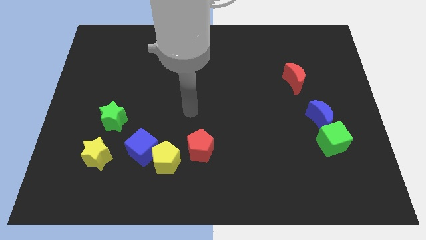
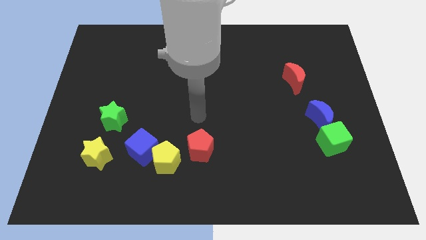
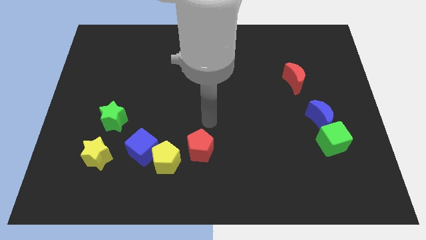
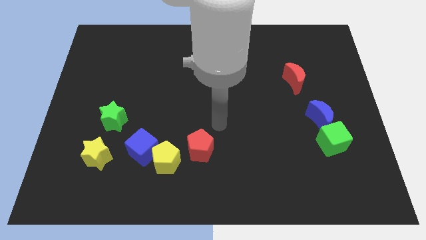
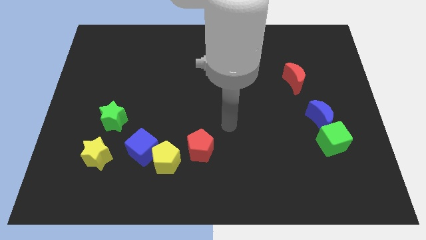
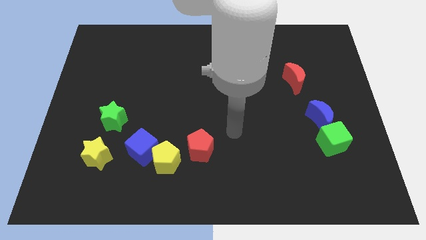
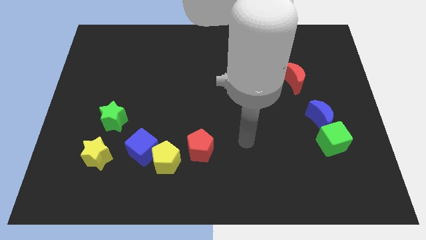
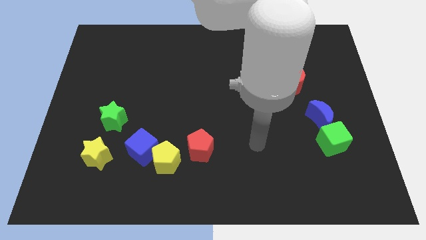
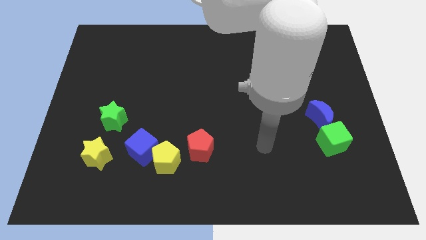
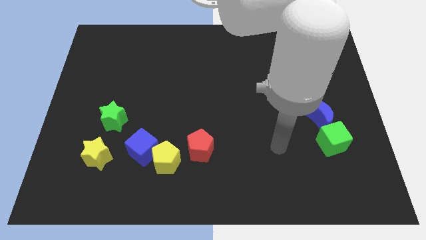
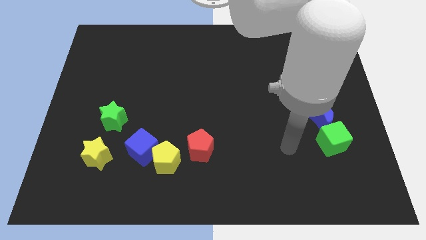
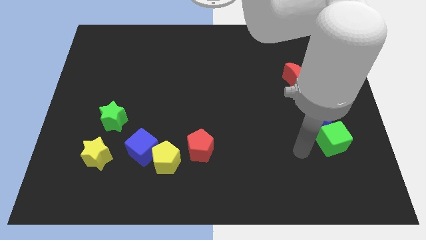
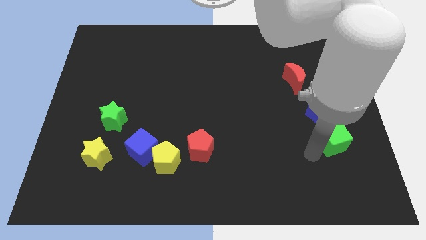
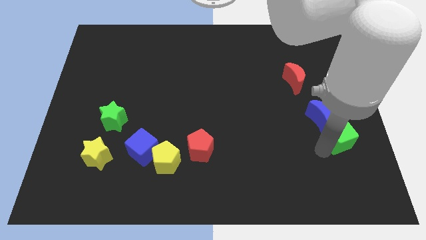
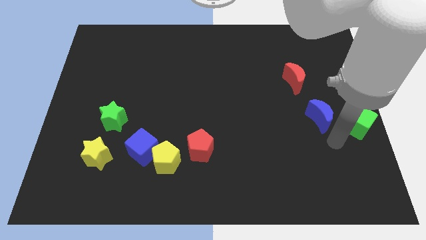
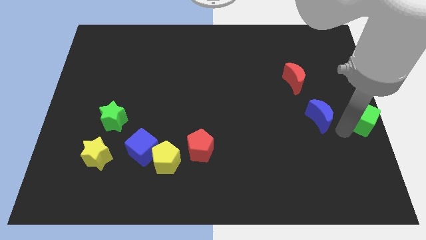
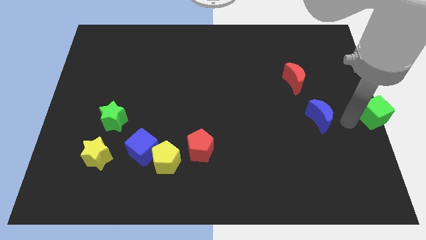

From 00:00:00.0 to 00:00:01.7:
pull the blue moon apart from the green cube

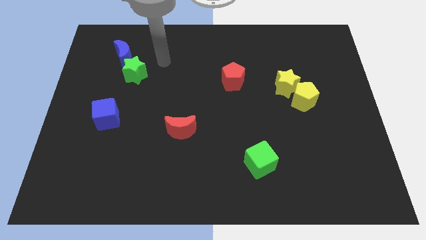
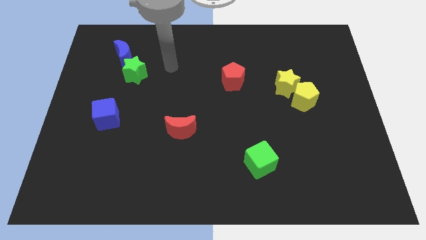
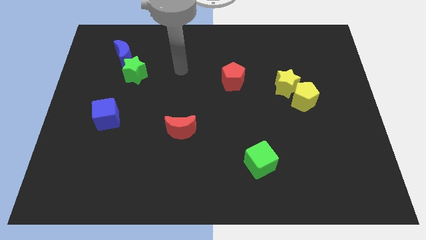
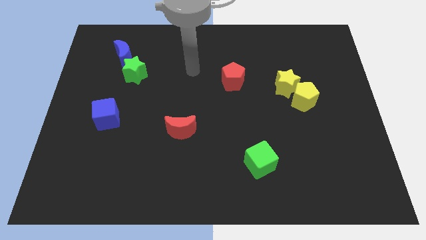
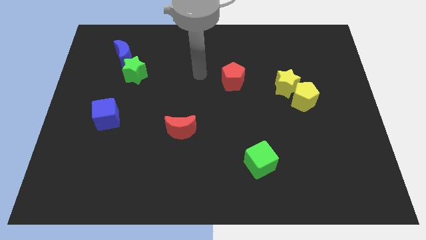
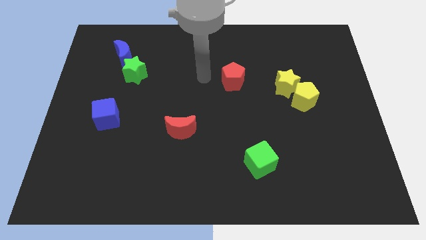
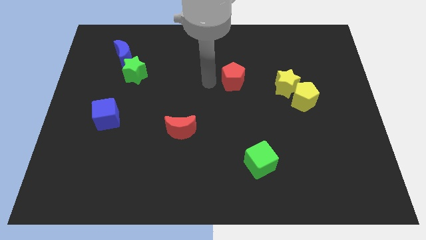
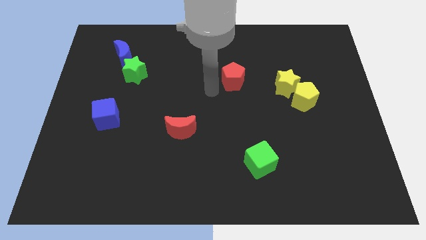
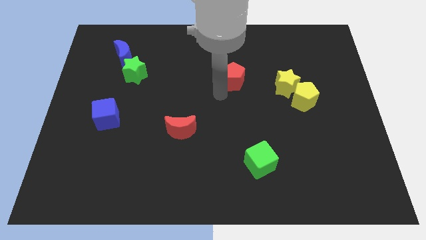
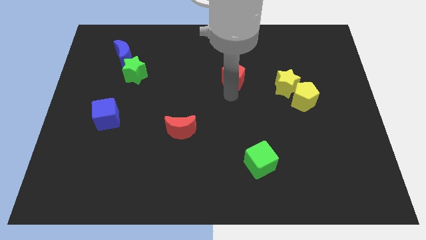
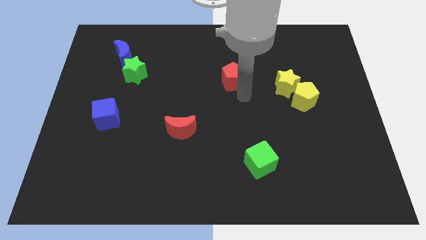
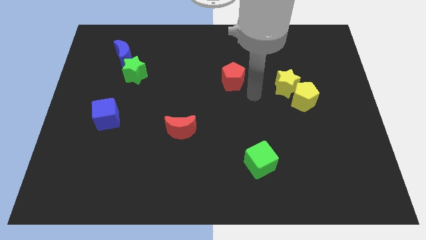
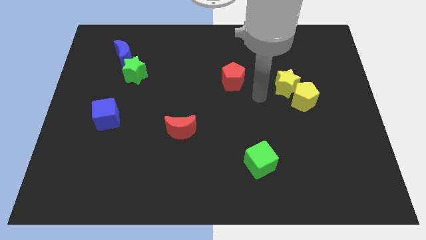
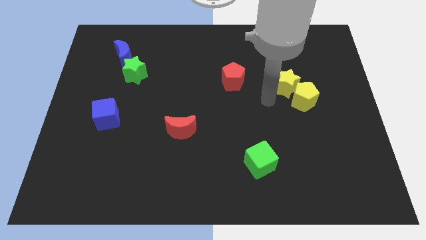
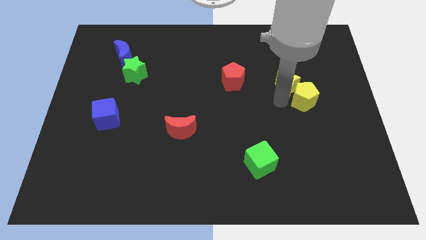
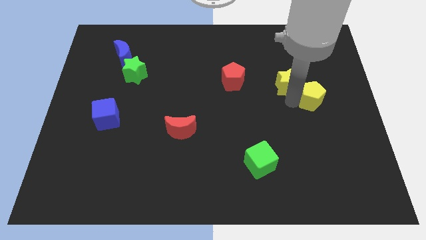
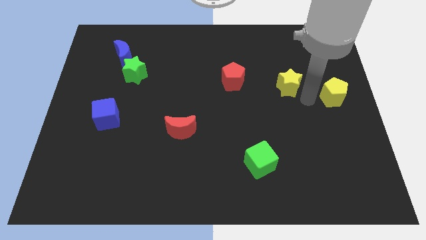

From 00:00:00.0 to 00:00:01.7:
move the yellow star away from the yellow pentagon

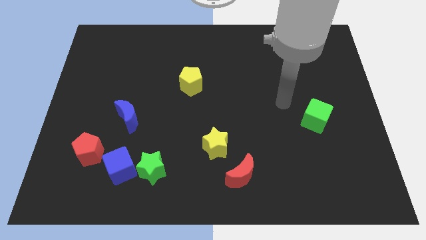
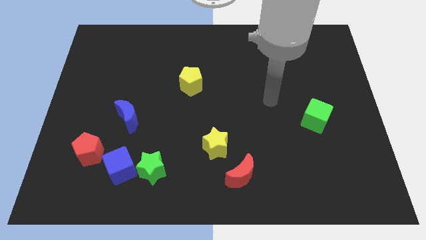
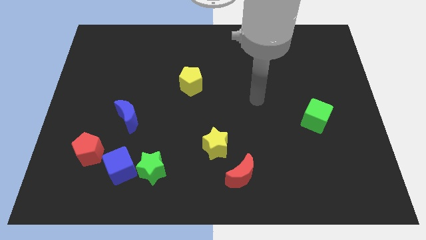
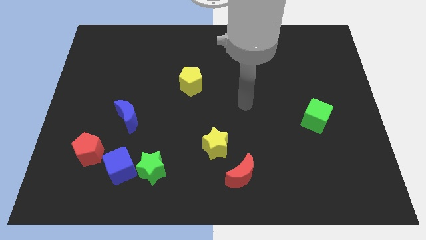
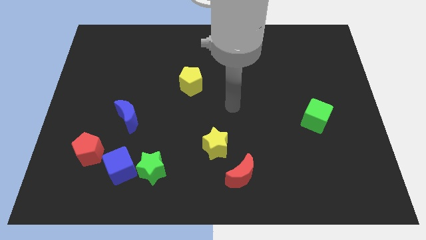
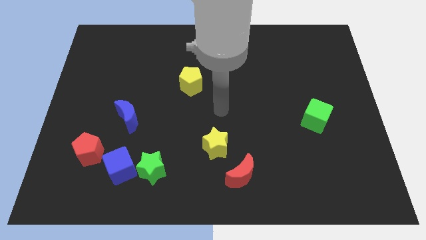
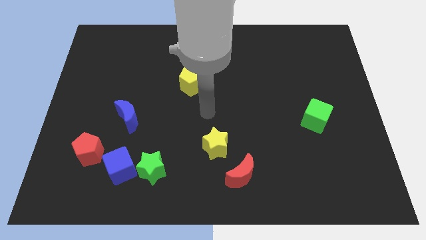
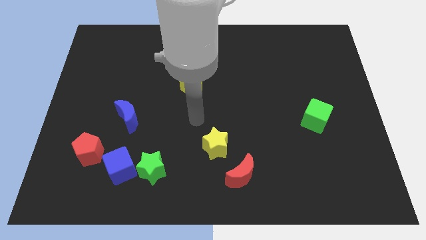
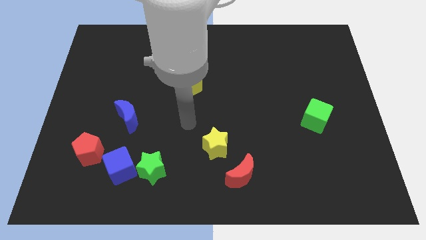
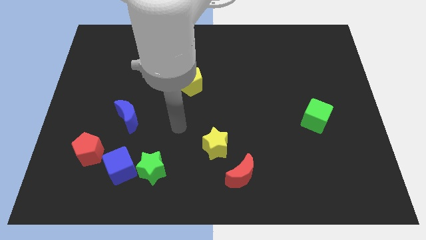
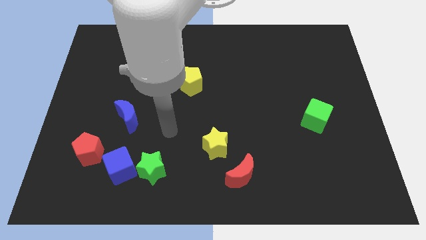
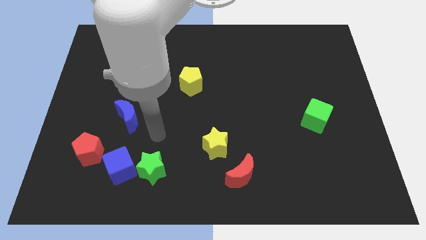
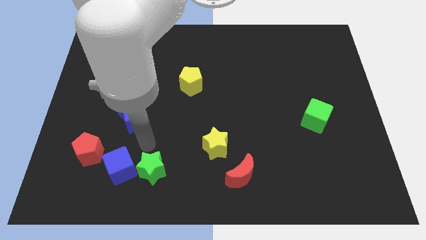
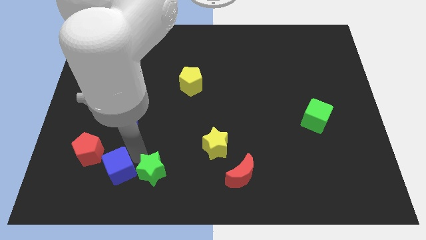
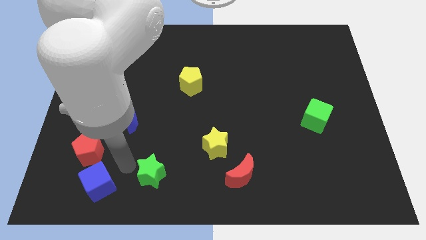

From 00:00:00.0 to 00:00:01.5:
separate the green star from the blue cube

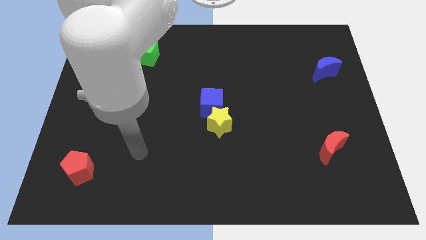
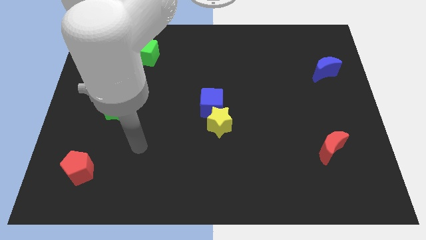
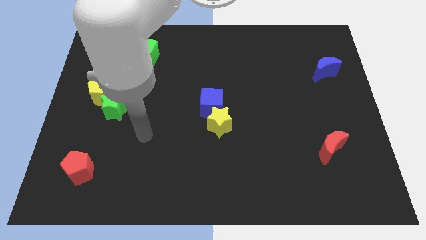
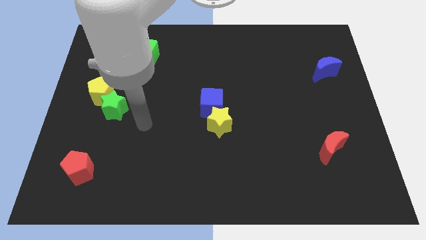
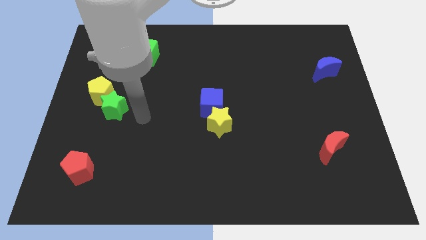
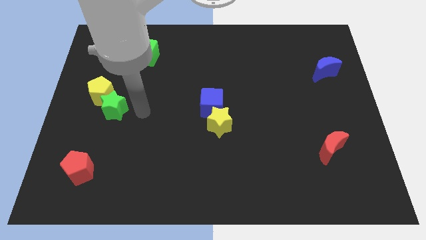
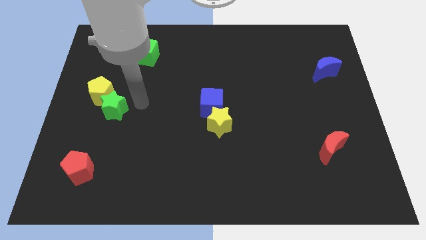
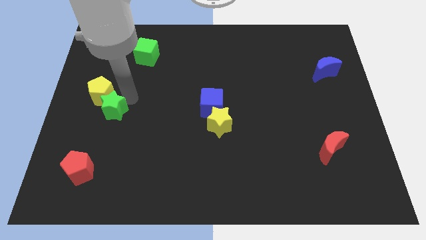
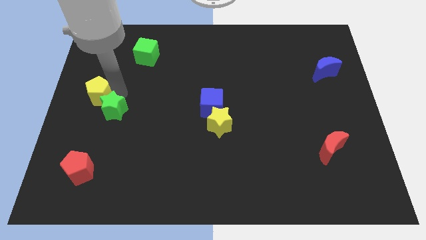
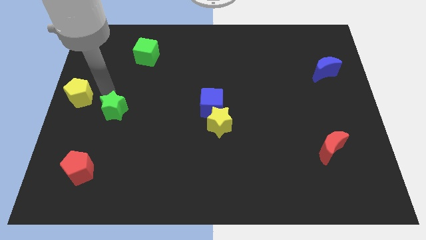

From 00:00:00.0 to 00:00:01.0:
separate the green star from the yellow pentagon

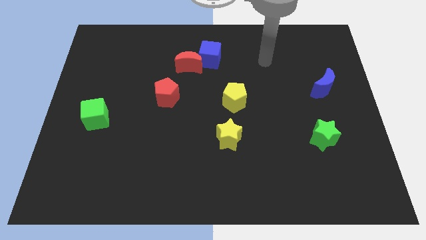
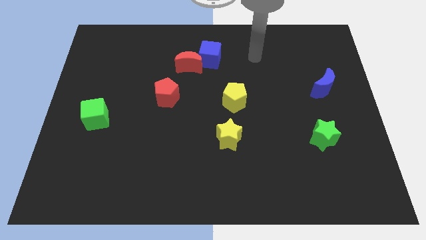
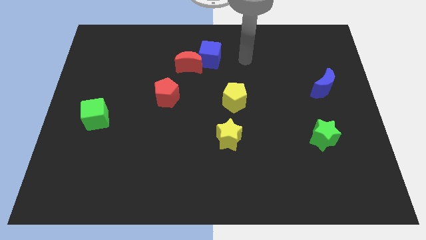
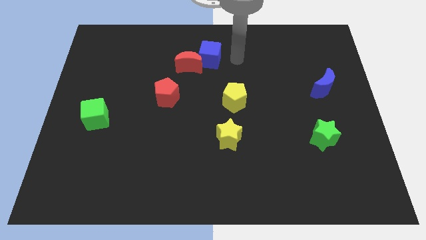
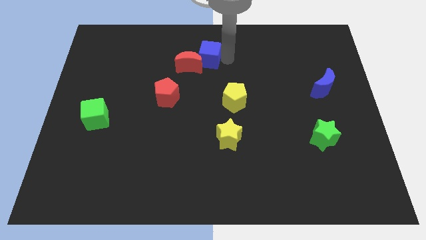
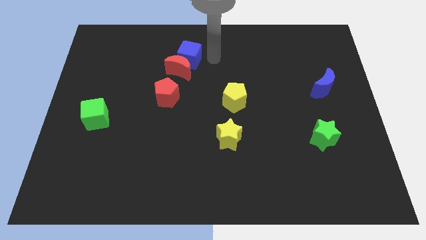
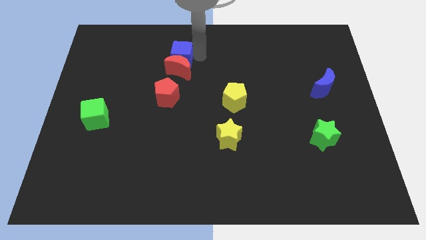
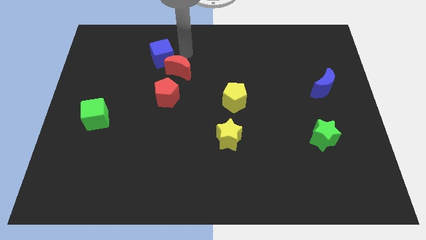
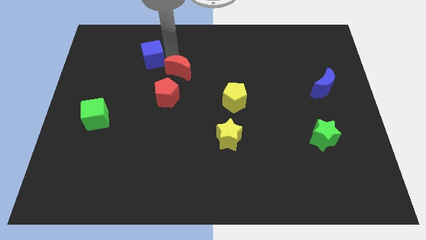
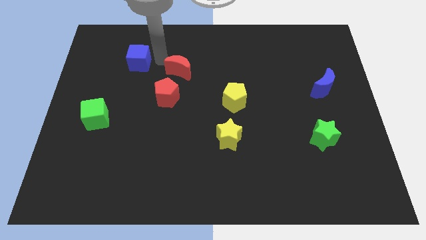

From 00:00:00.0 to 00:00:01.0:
pull the red moon apart from the blue cube

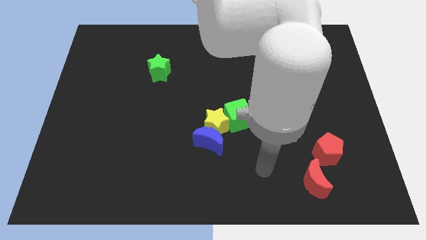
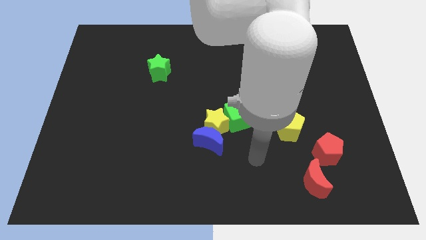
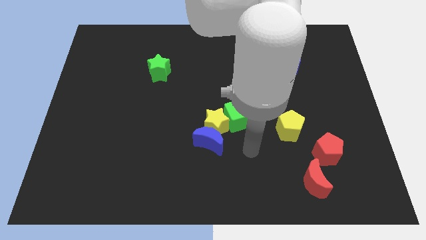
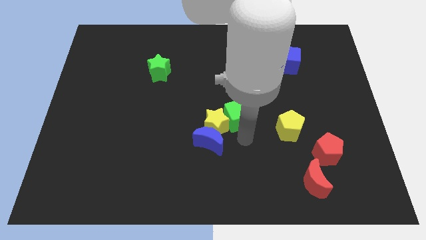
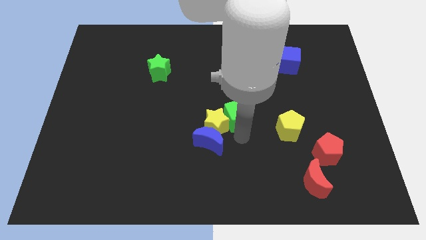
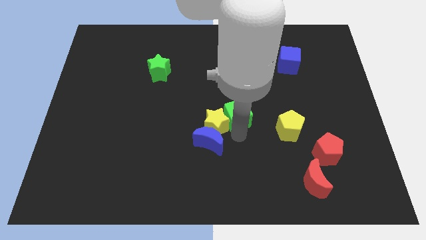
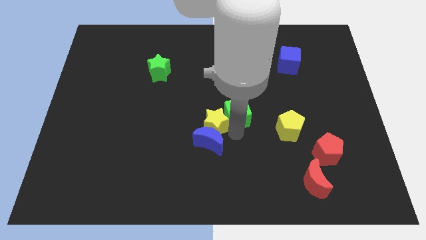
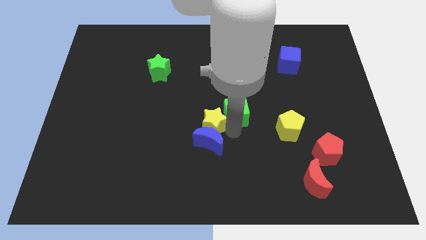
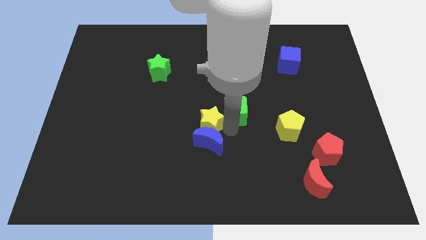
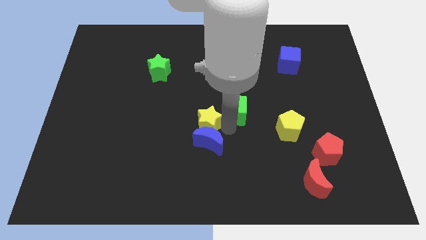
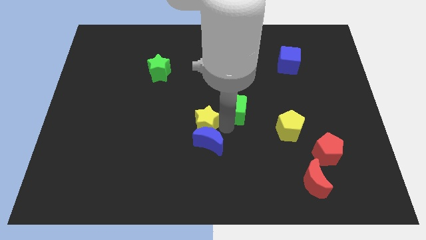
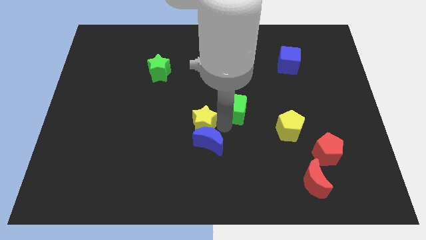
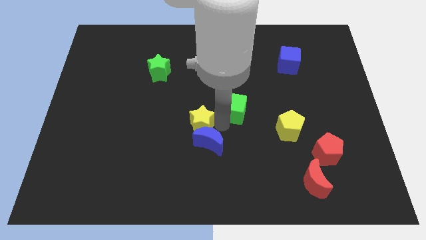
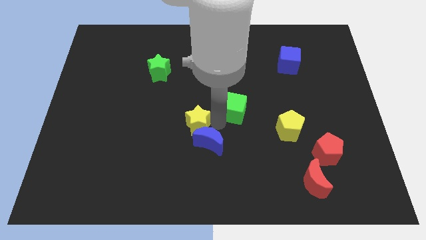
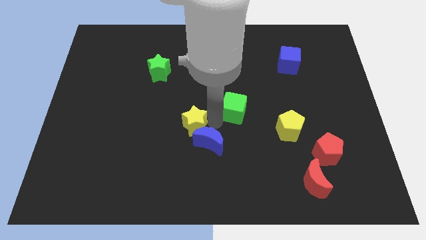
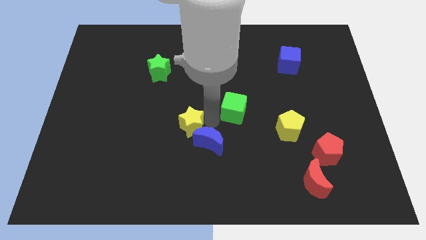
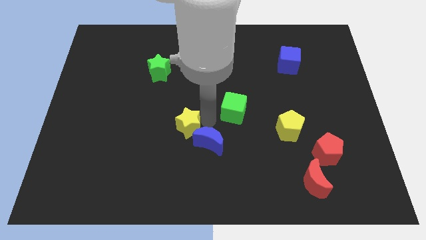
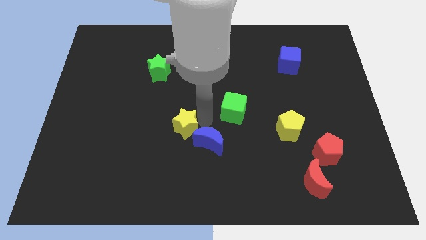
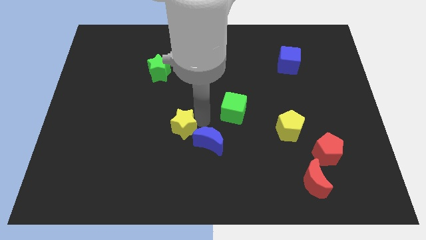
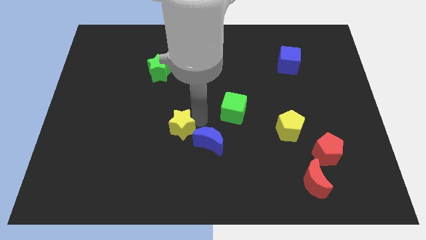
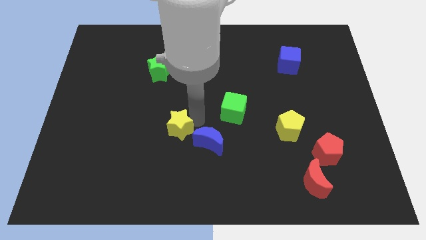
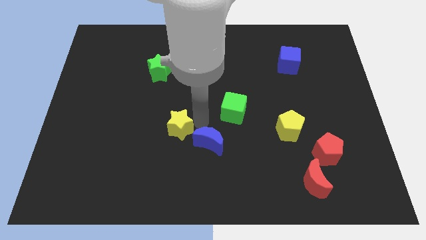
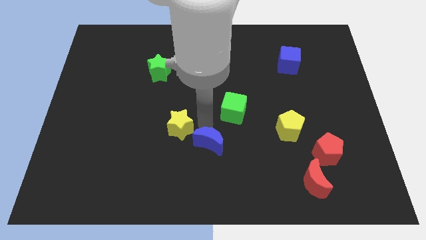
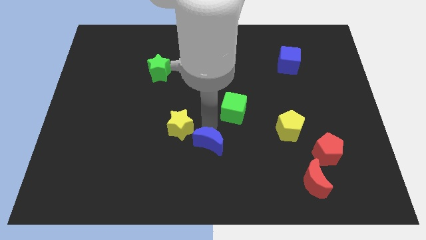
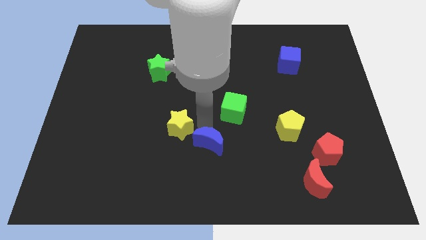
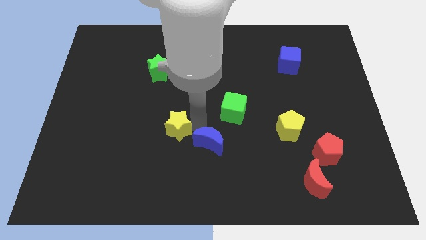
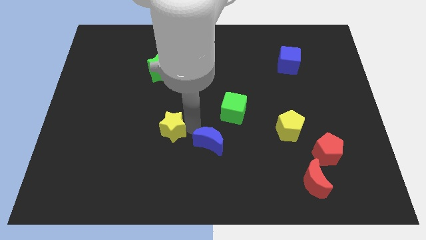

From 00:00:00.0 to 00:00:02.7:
separate the yellow star from the blue moon and green cube
